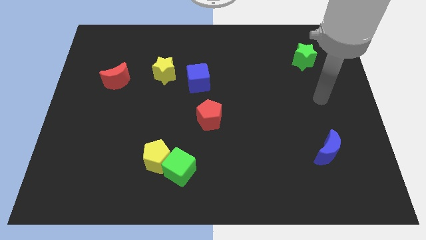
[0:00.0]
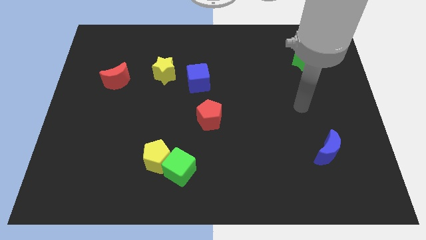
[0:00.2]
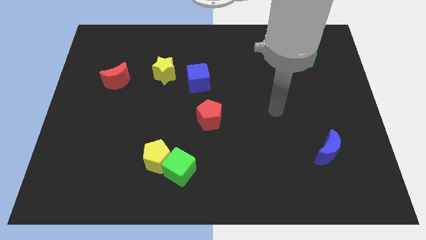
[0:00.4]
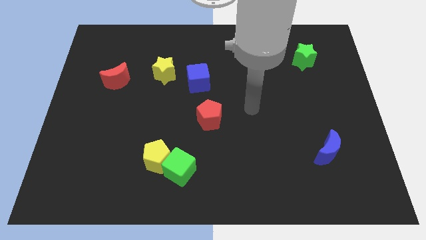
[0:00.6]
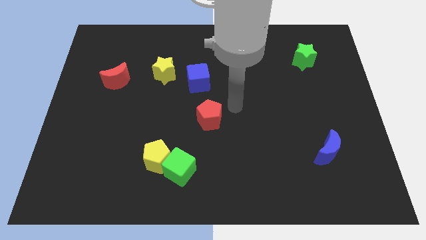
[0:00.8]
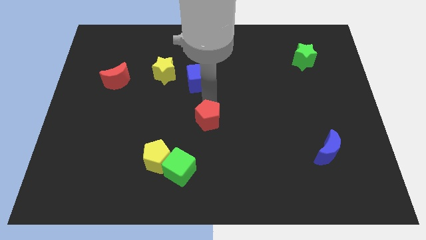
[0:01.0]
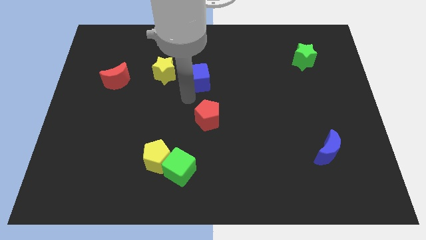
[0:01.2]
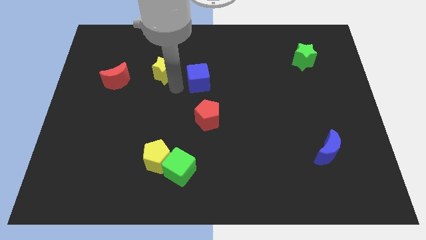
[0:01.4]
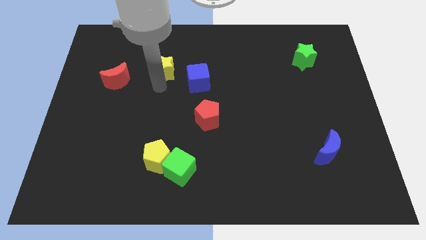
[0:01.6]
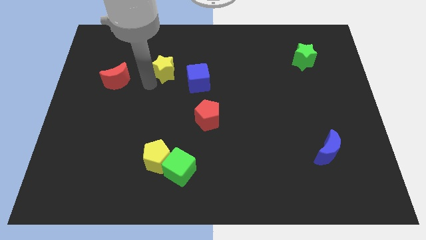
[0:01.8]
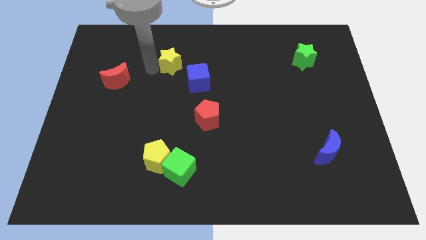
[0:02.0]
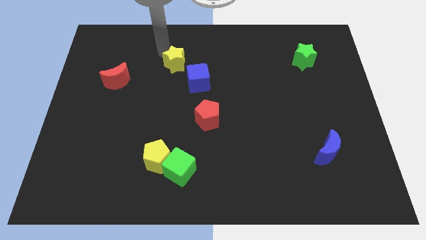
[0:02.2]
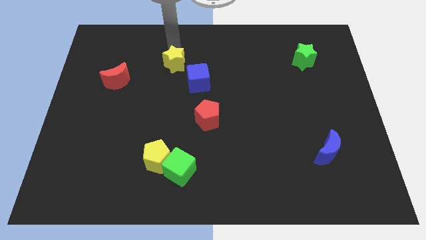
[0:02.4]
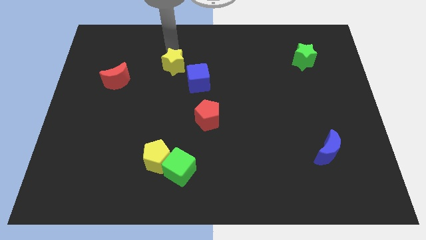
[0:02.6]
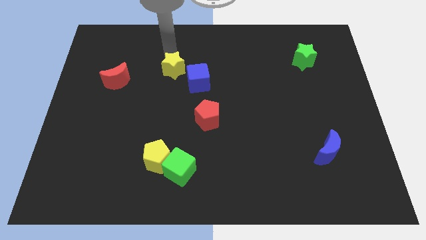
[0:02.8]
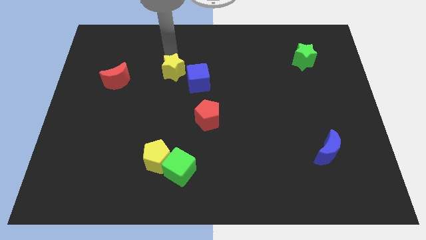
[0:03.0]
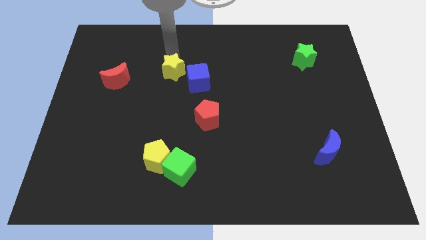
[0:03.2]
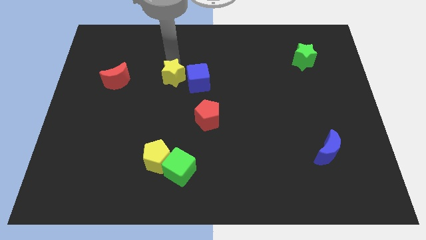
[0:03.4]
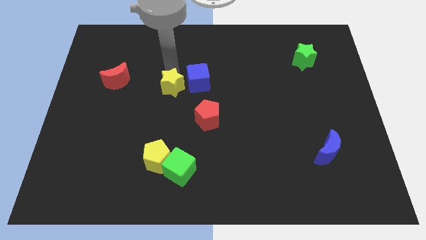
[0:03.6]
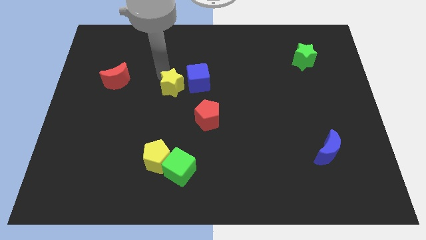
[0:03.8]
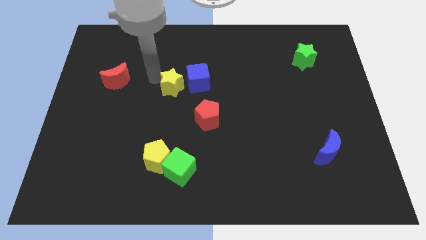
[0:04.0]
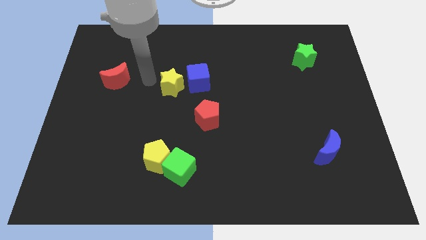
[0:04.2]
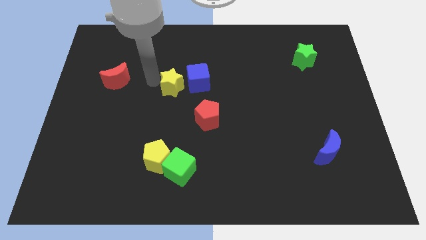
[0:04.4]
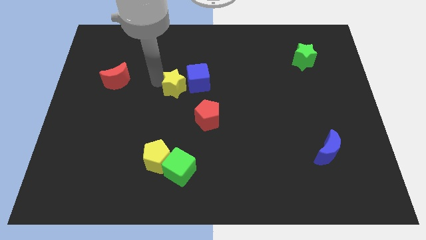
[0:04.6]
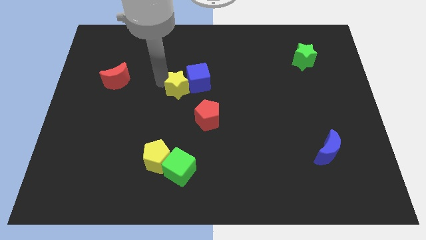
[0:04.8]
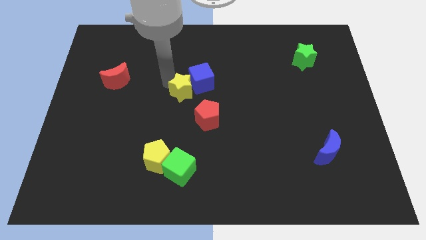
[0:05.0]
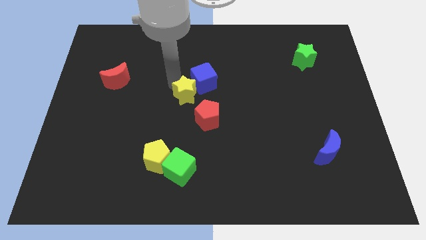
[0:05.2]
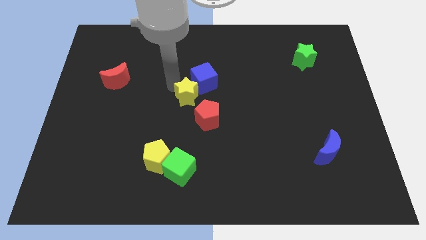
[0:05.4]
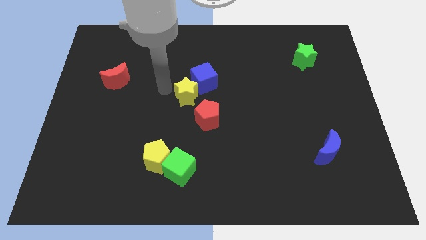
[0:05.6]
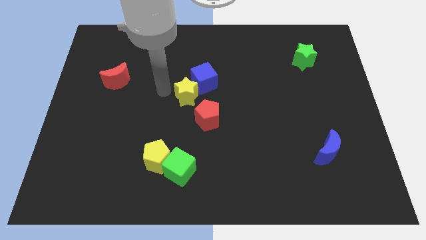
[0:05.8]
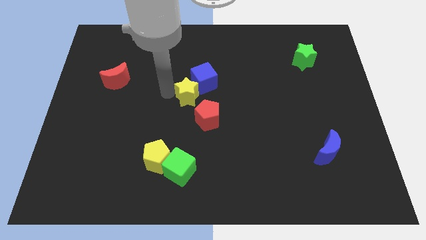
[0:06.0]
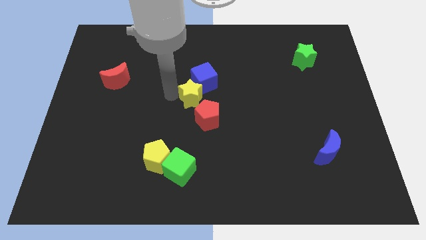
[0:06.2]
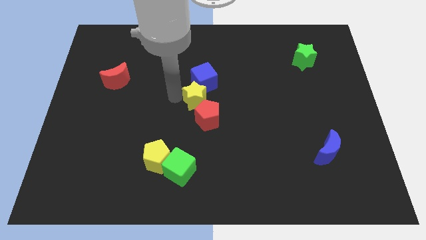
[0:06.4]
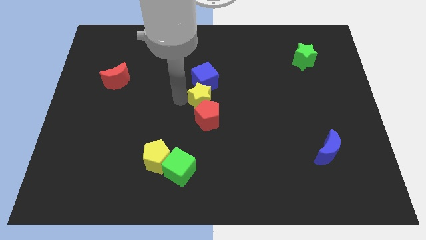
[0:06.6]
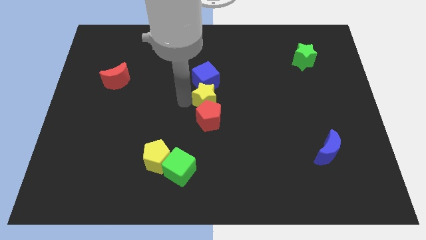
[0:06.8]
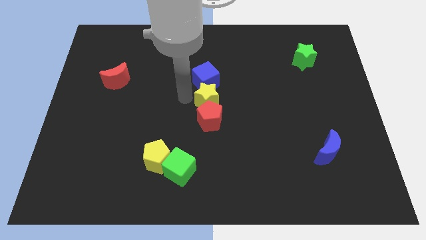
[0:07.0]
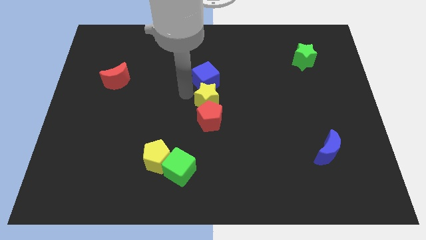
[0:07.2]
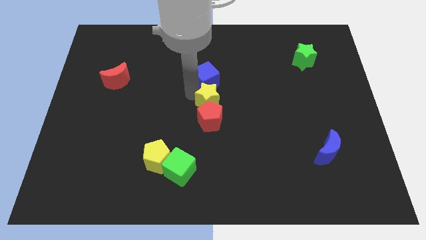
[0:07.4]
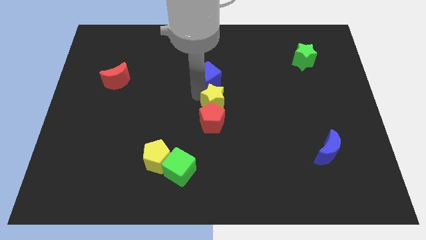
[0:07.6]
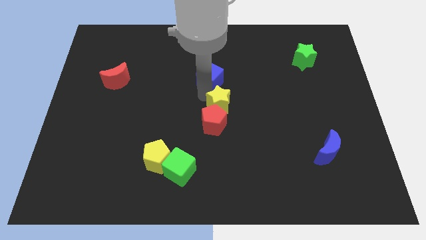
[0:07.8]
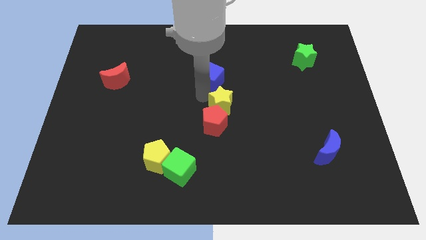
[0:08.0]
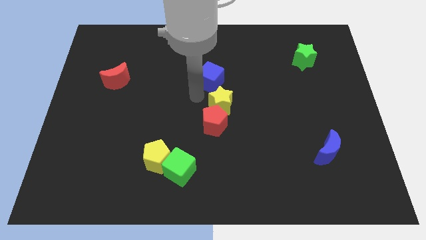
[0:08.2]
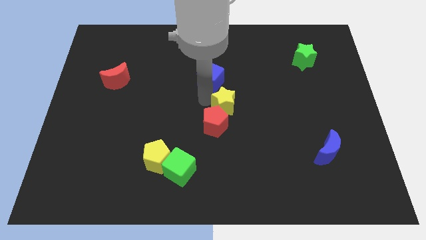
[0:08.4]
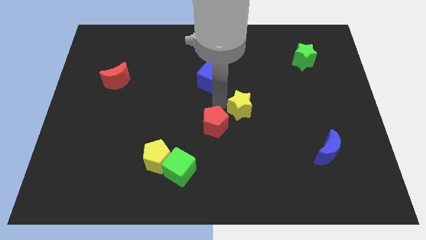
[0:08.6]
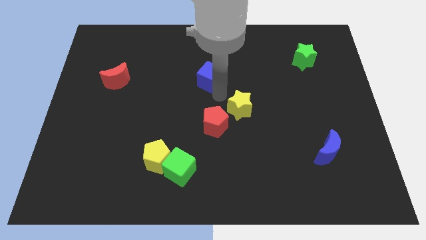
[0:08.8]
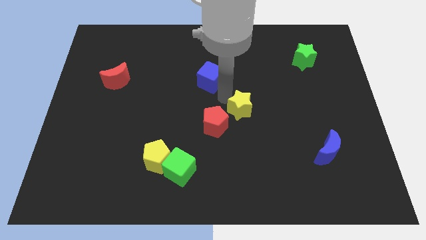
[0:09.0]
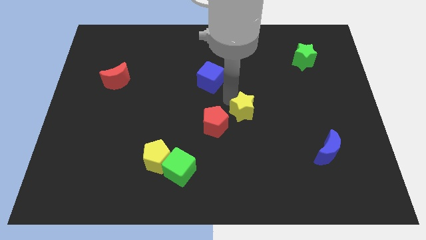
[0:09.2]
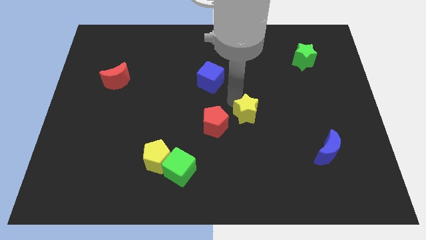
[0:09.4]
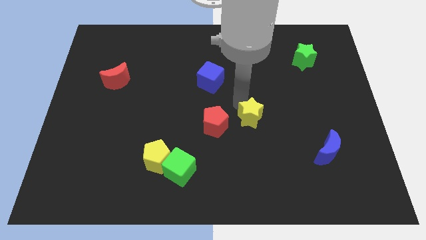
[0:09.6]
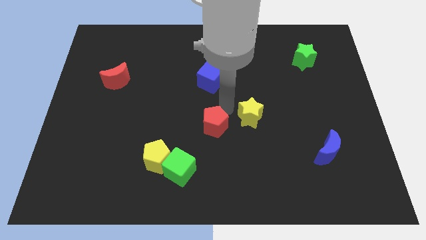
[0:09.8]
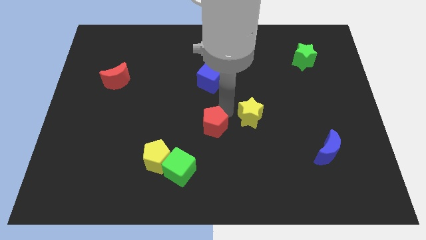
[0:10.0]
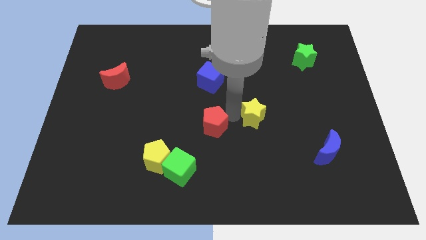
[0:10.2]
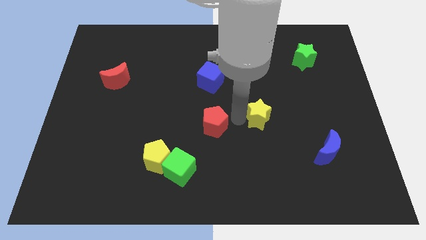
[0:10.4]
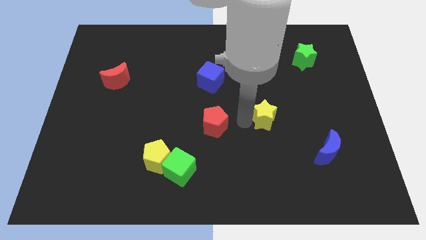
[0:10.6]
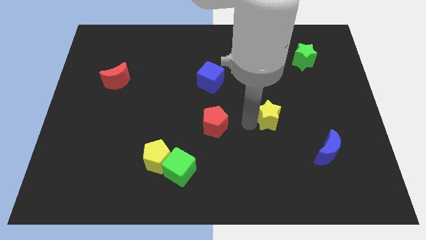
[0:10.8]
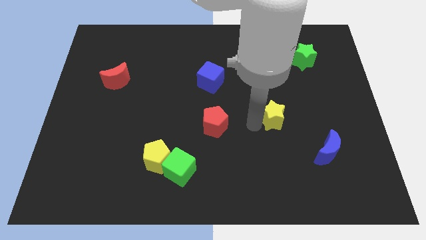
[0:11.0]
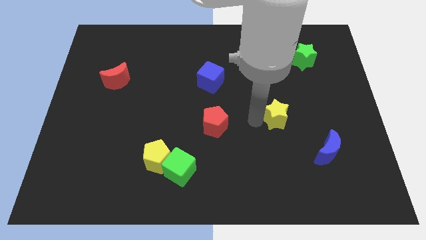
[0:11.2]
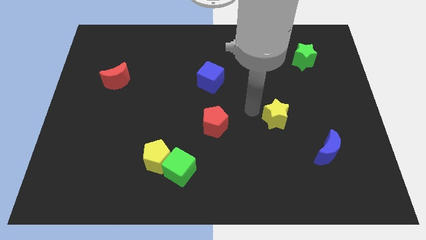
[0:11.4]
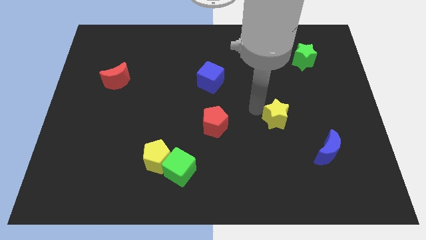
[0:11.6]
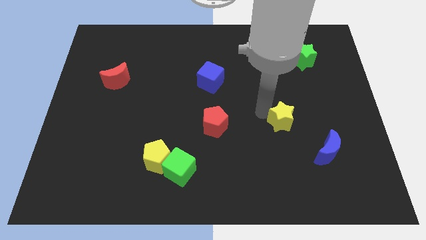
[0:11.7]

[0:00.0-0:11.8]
push the yellow star diagonally up and to the left of the blue moon

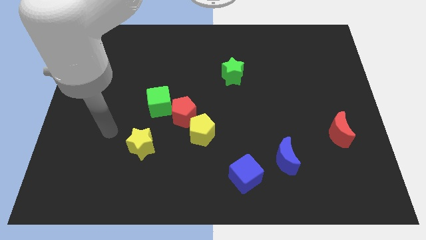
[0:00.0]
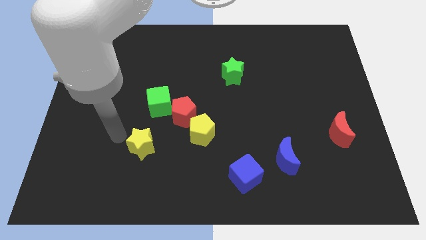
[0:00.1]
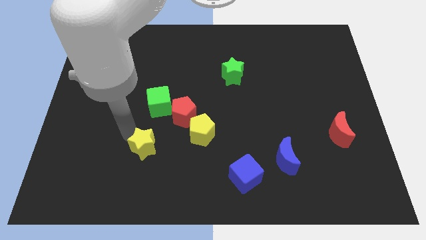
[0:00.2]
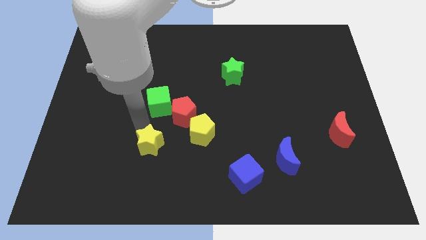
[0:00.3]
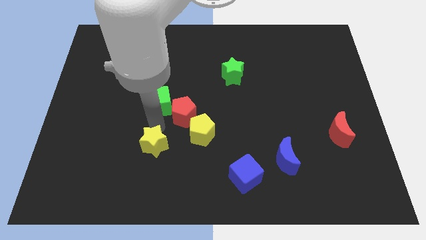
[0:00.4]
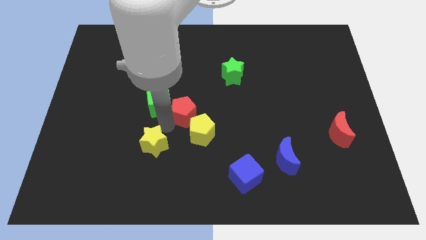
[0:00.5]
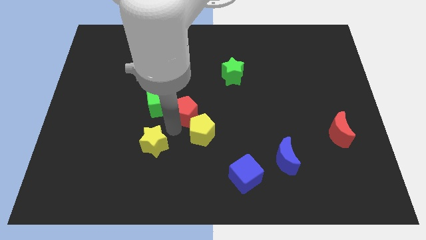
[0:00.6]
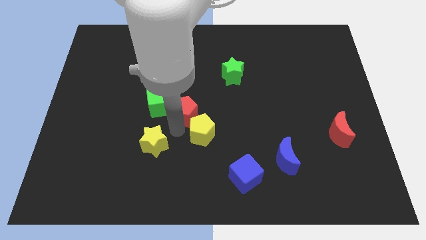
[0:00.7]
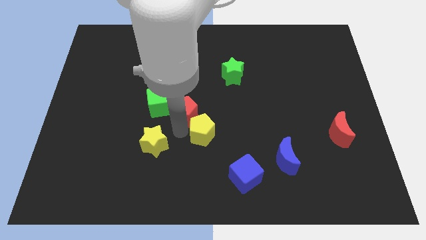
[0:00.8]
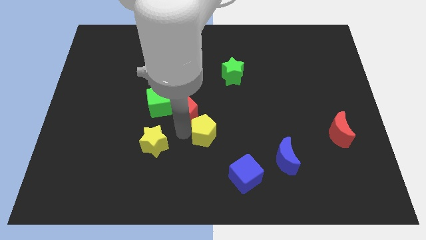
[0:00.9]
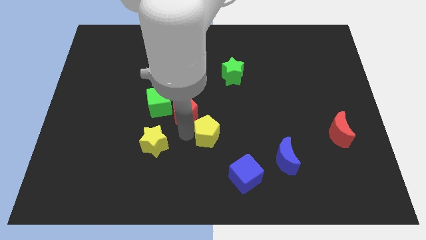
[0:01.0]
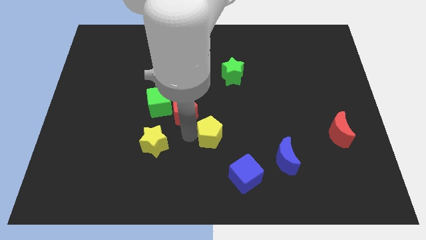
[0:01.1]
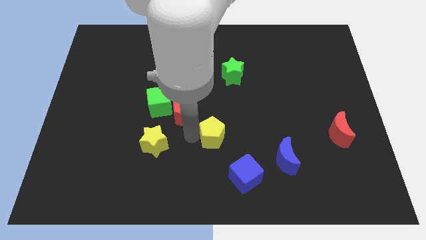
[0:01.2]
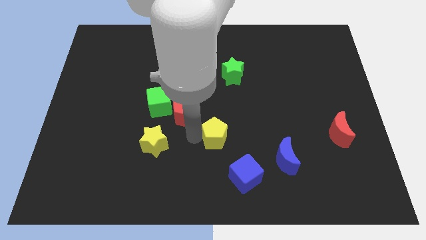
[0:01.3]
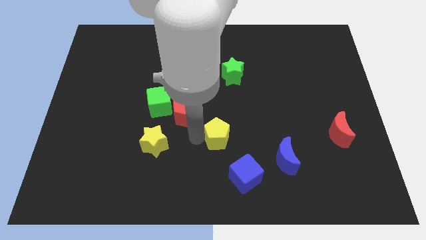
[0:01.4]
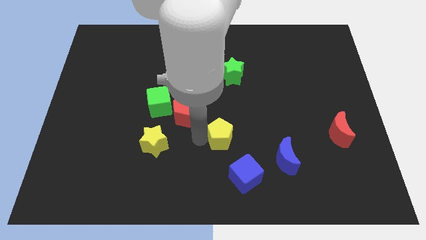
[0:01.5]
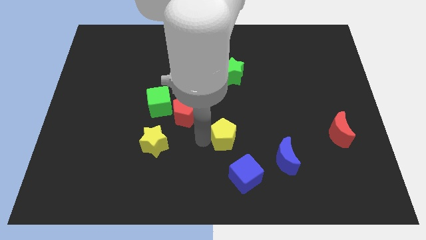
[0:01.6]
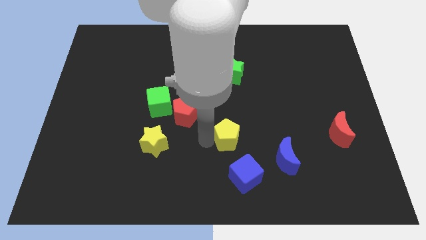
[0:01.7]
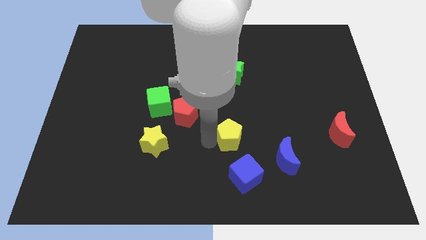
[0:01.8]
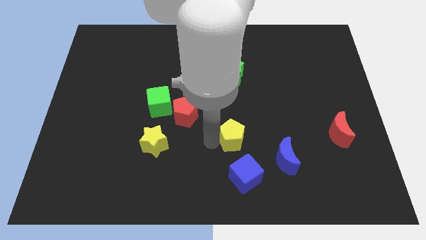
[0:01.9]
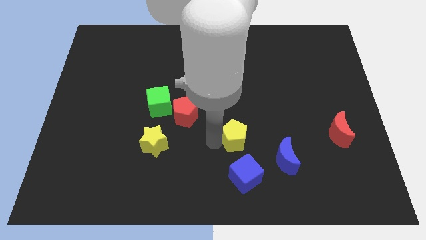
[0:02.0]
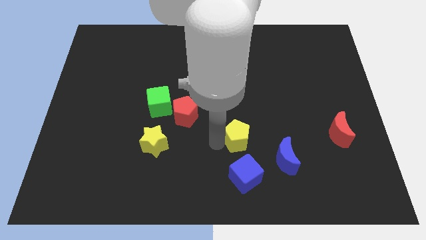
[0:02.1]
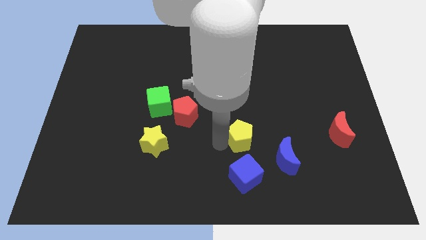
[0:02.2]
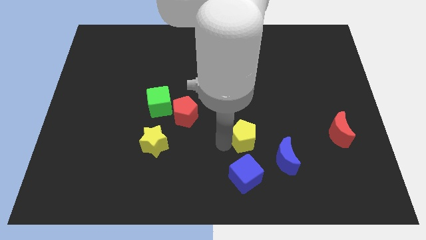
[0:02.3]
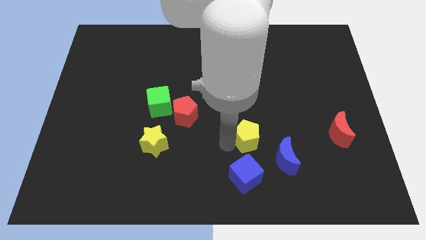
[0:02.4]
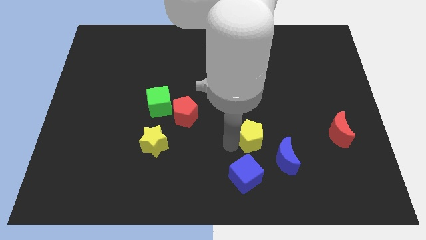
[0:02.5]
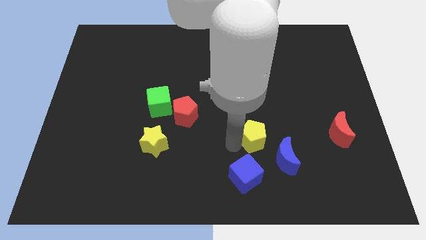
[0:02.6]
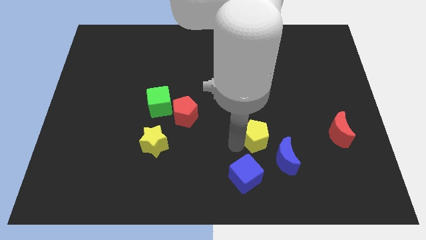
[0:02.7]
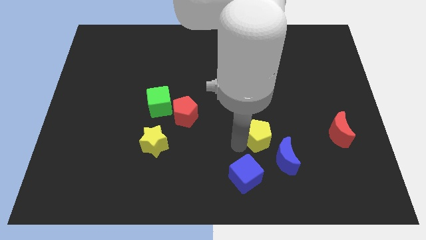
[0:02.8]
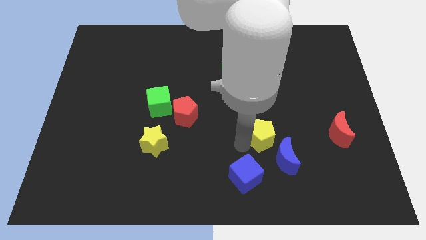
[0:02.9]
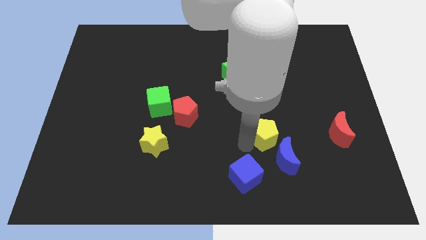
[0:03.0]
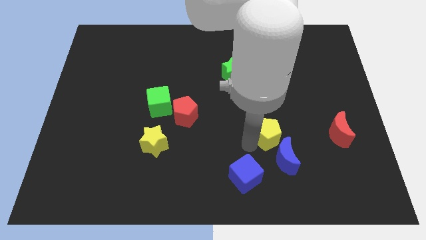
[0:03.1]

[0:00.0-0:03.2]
slide the yellow pentagon left of the red moon
